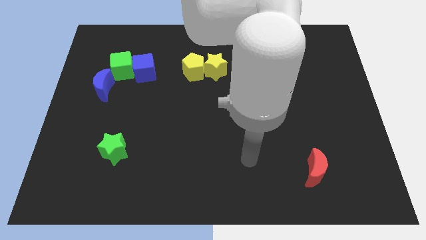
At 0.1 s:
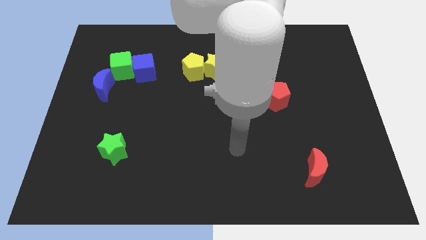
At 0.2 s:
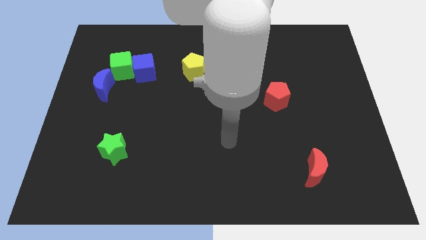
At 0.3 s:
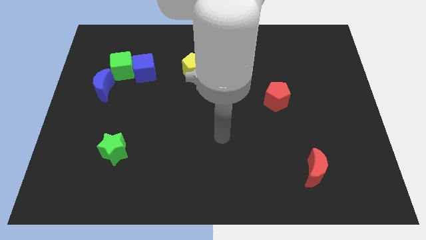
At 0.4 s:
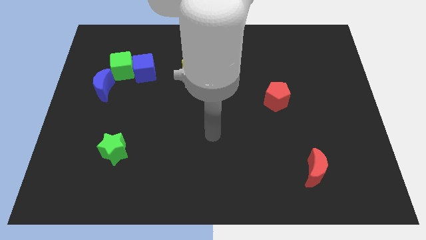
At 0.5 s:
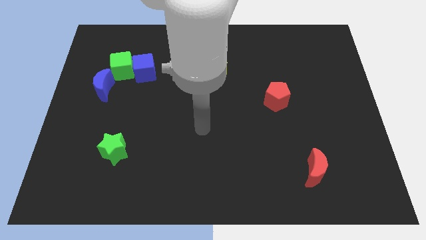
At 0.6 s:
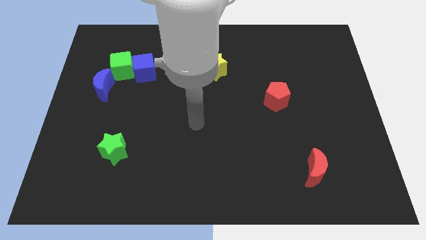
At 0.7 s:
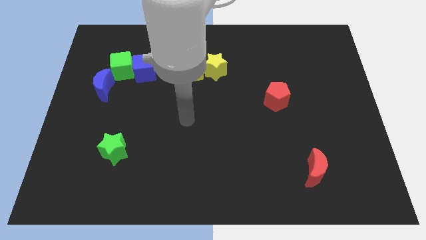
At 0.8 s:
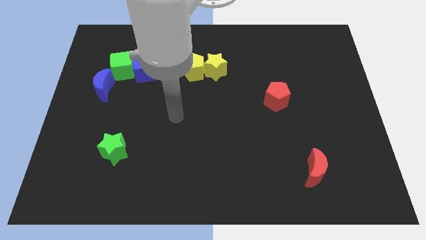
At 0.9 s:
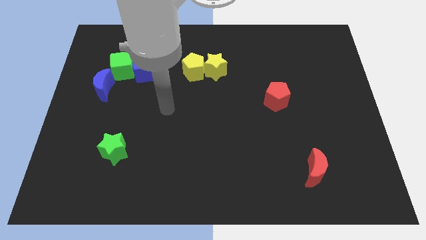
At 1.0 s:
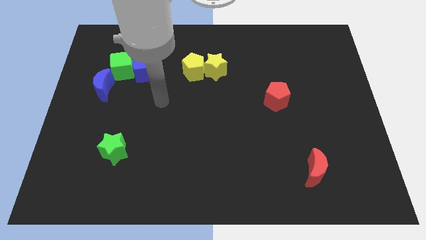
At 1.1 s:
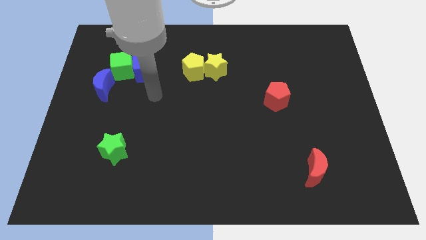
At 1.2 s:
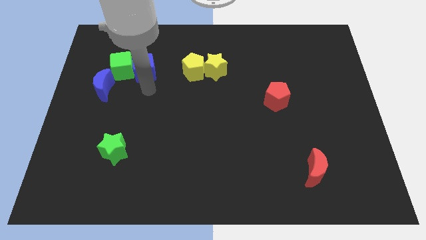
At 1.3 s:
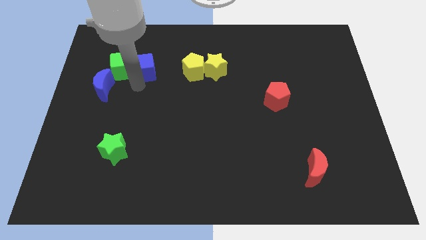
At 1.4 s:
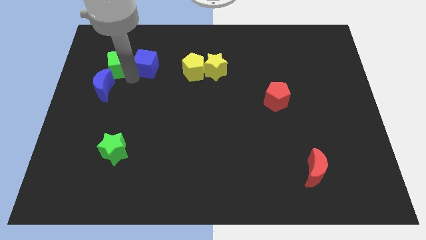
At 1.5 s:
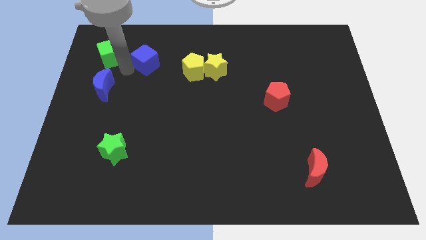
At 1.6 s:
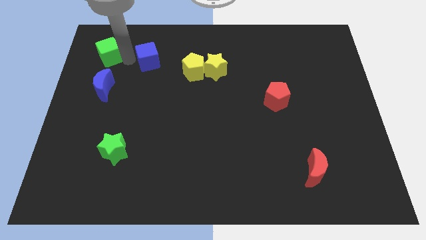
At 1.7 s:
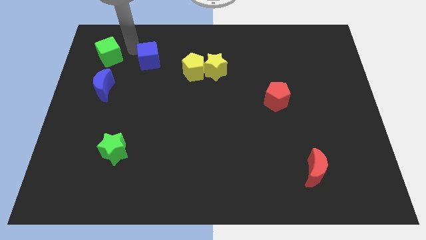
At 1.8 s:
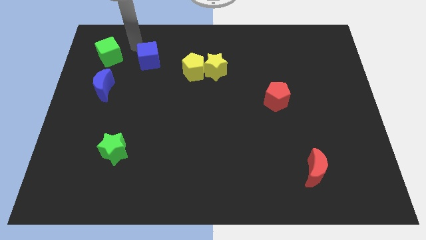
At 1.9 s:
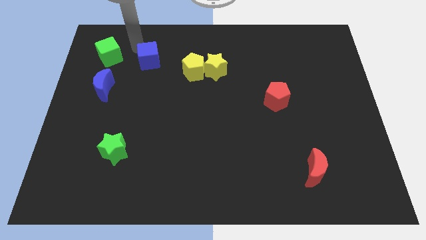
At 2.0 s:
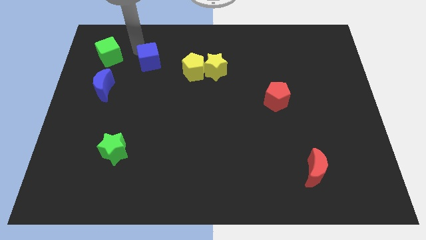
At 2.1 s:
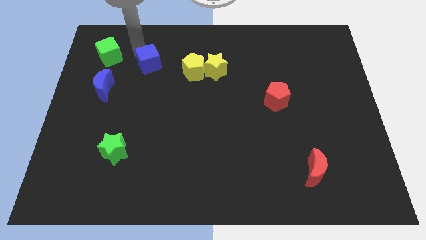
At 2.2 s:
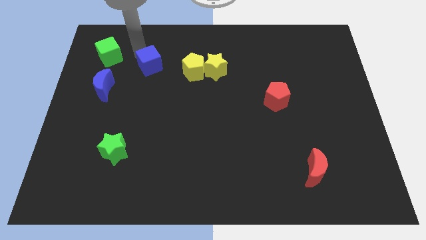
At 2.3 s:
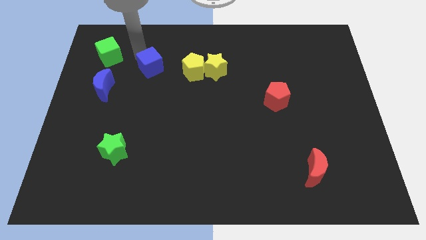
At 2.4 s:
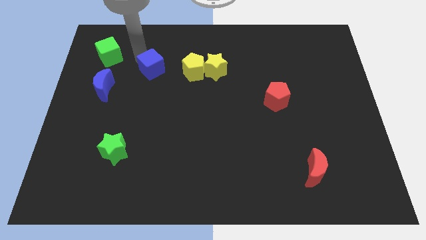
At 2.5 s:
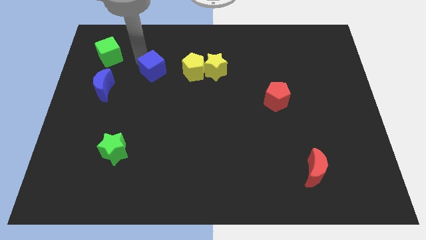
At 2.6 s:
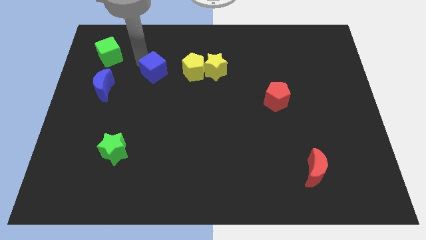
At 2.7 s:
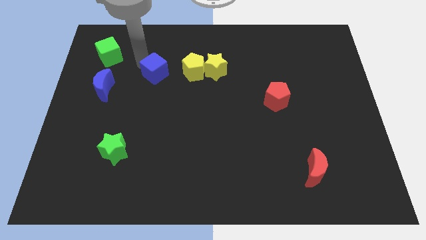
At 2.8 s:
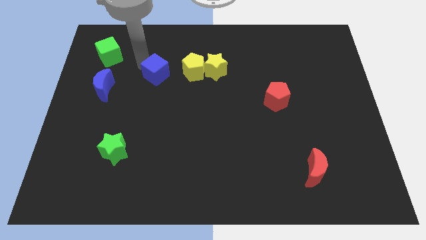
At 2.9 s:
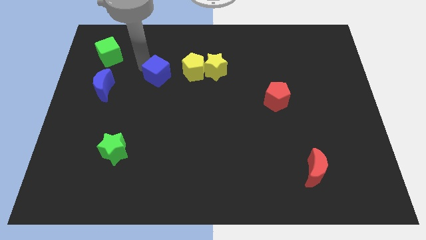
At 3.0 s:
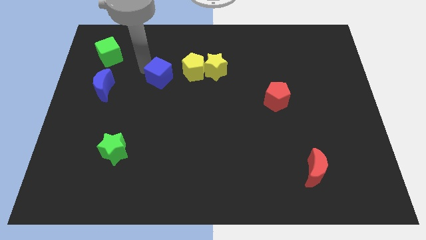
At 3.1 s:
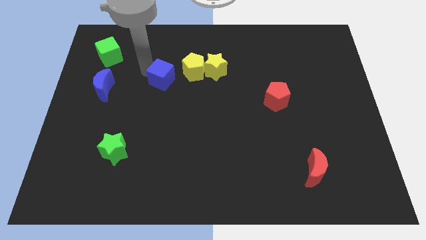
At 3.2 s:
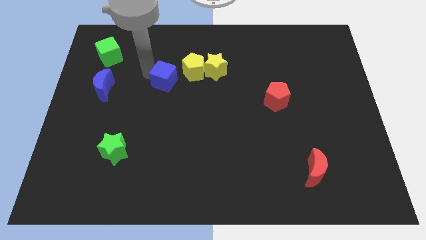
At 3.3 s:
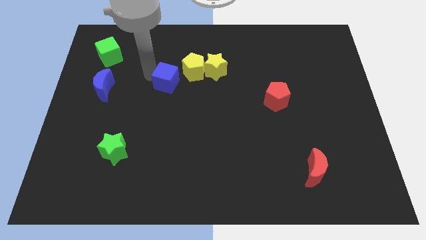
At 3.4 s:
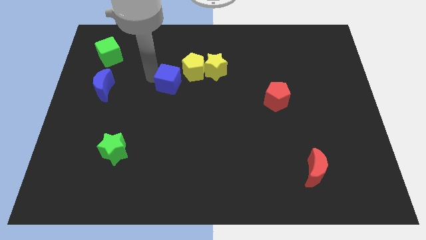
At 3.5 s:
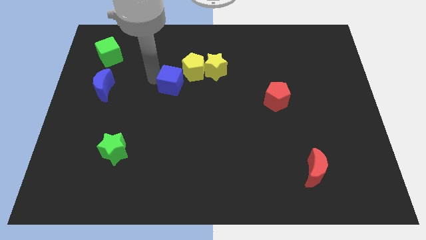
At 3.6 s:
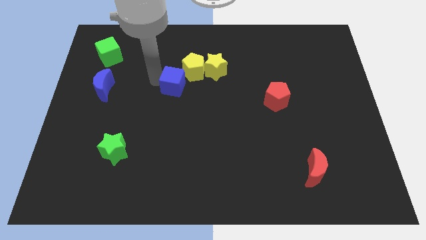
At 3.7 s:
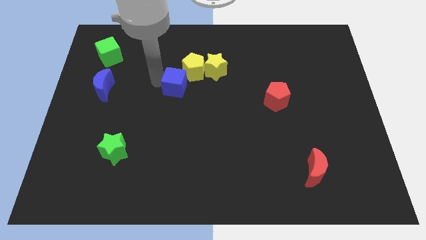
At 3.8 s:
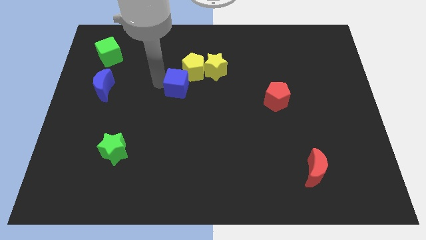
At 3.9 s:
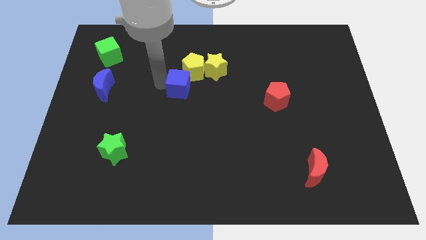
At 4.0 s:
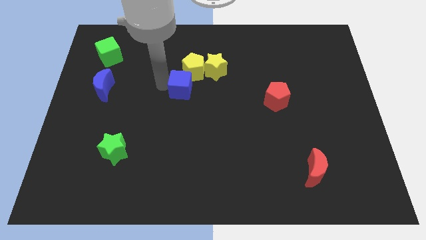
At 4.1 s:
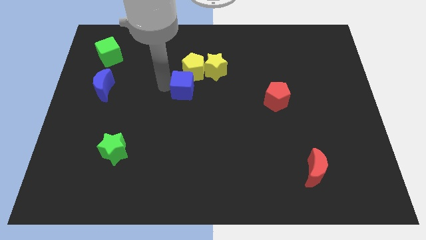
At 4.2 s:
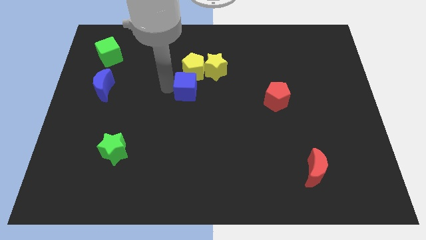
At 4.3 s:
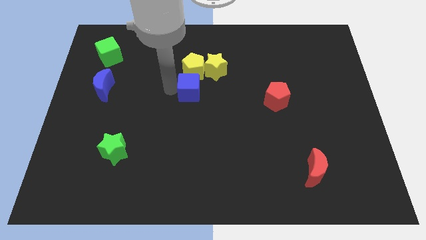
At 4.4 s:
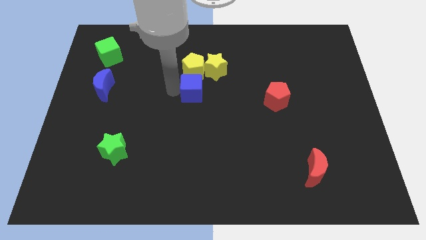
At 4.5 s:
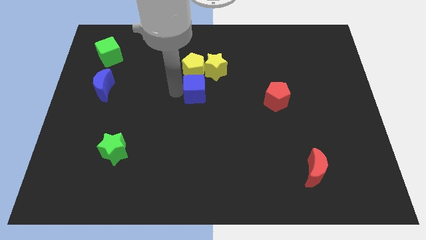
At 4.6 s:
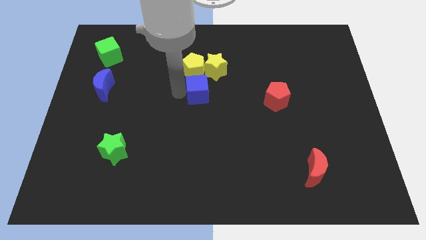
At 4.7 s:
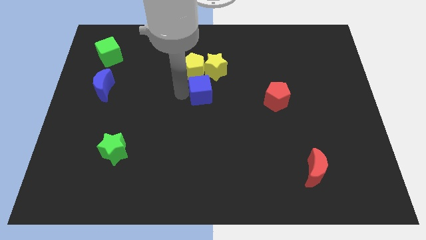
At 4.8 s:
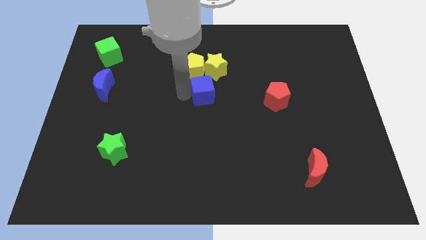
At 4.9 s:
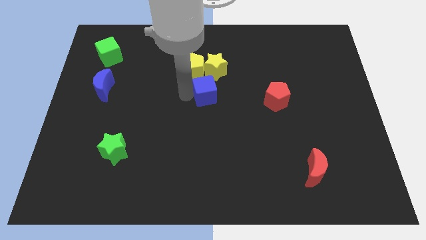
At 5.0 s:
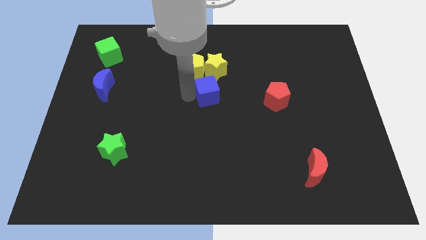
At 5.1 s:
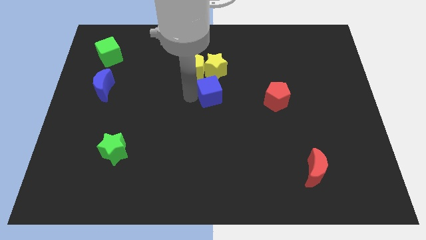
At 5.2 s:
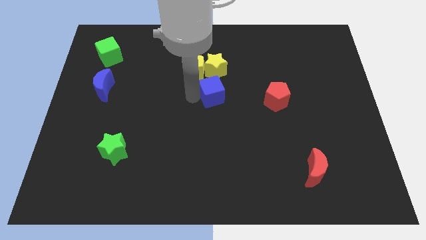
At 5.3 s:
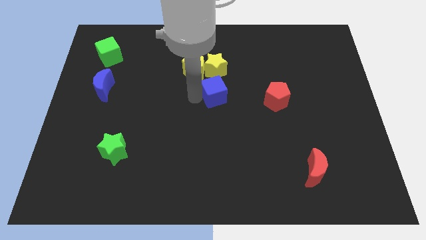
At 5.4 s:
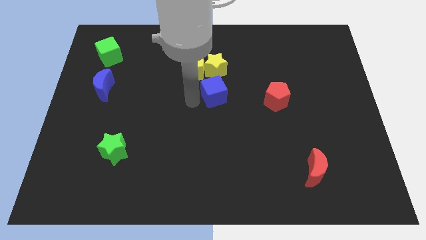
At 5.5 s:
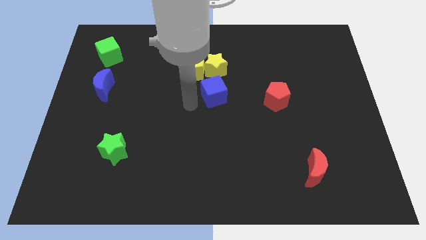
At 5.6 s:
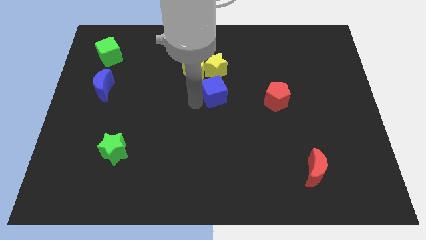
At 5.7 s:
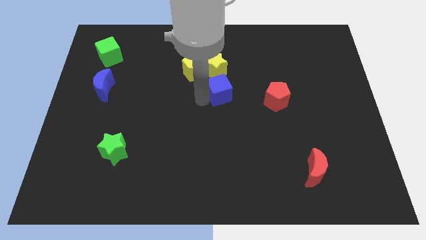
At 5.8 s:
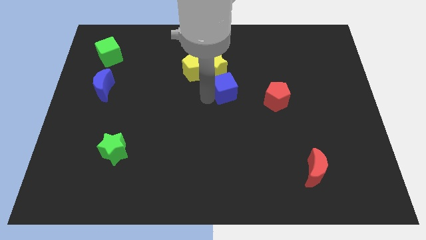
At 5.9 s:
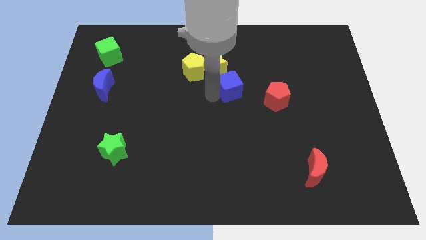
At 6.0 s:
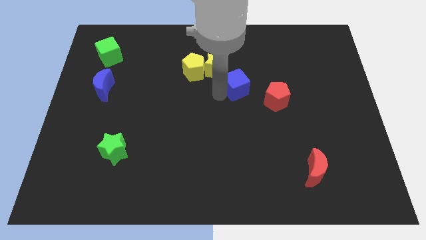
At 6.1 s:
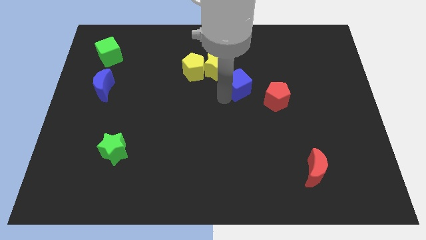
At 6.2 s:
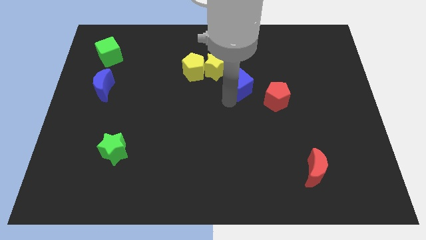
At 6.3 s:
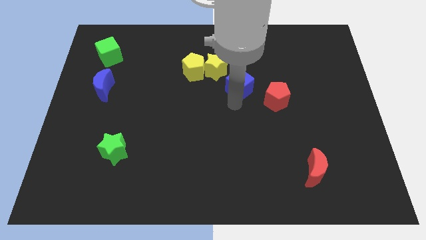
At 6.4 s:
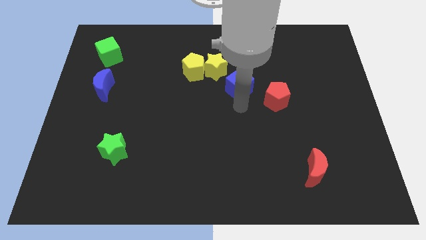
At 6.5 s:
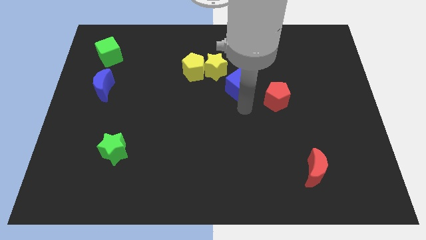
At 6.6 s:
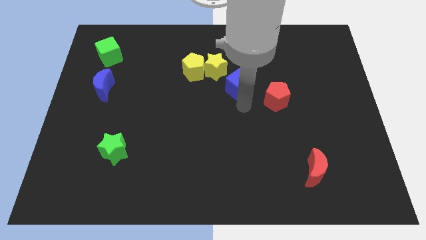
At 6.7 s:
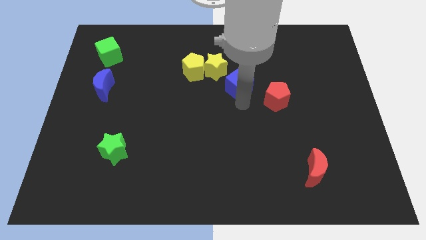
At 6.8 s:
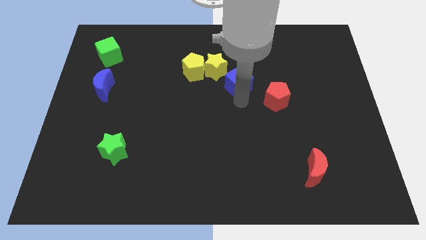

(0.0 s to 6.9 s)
put the blue cube to the right of the yellow pentagon
